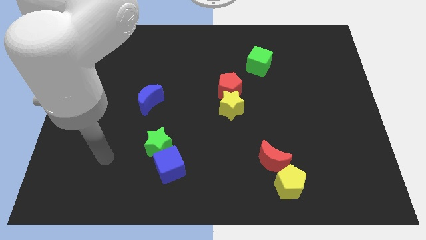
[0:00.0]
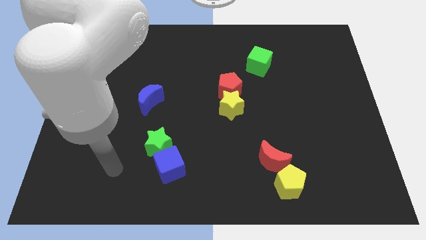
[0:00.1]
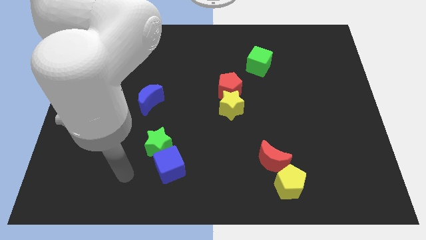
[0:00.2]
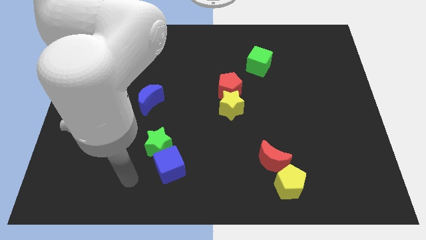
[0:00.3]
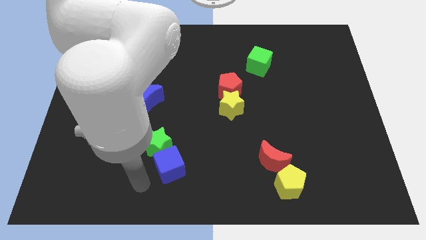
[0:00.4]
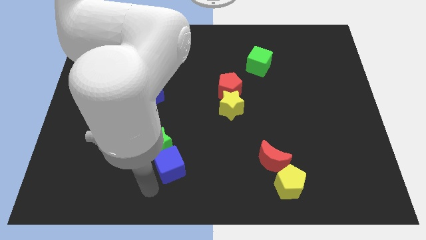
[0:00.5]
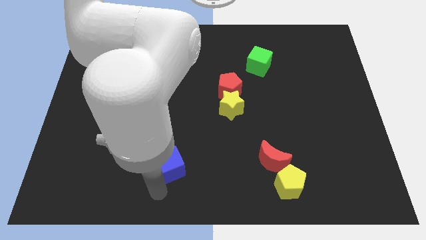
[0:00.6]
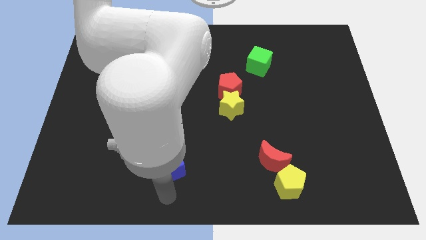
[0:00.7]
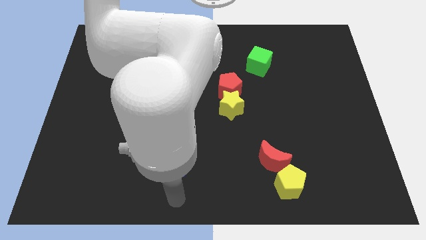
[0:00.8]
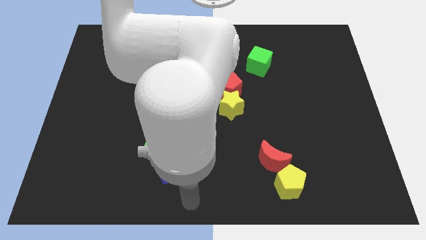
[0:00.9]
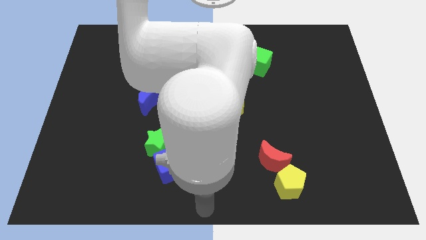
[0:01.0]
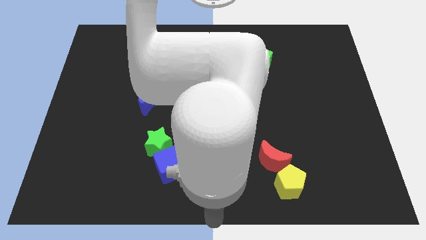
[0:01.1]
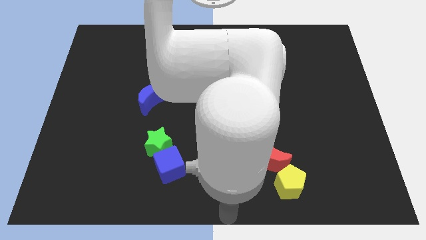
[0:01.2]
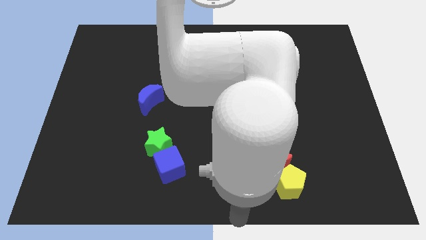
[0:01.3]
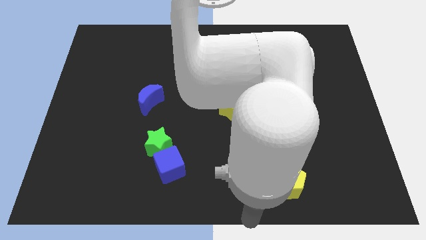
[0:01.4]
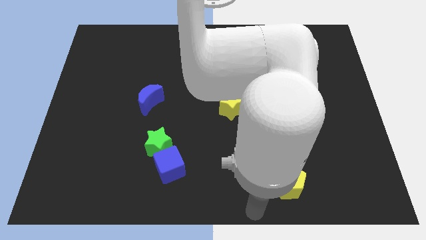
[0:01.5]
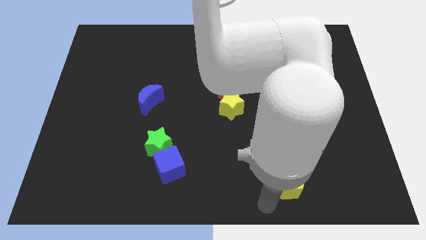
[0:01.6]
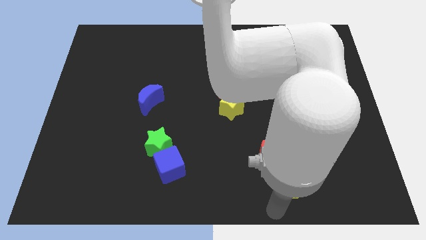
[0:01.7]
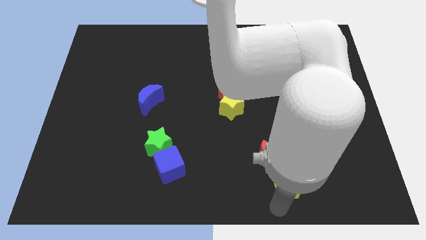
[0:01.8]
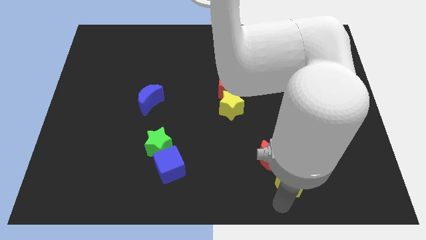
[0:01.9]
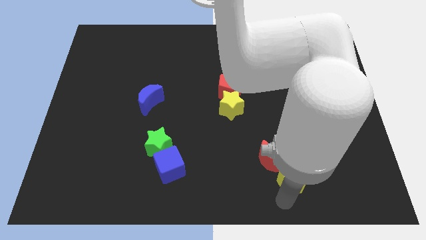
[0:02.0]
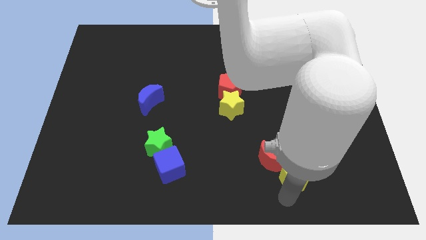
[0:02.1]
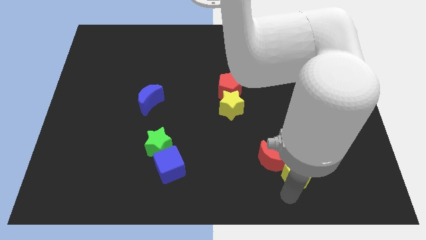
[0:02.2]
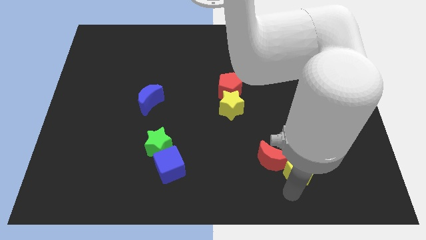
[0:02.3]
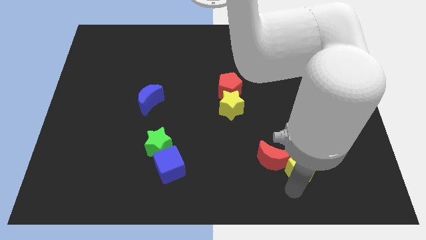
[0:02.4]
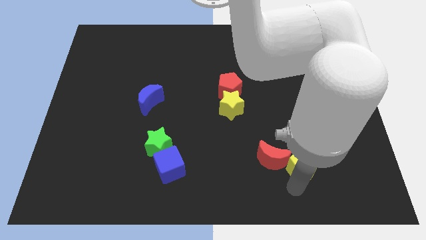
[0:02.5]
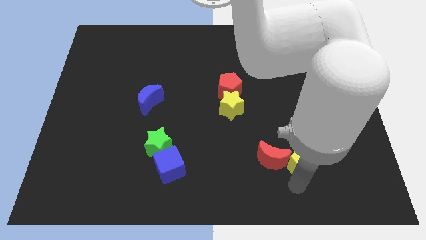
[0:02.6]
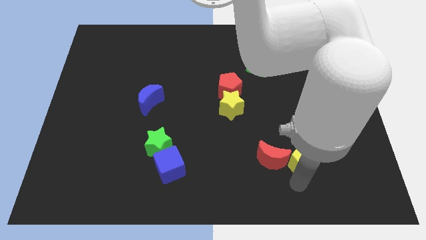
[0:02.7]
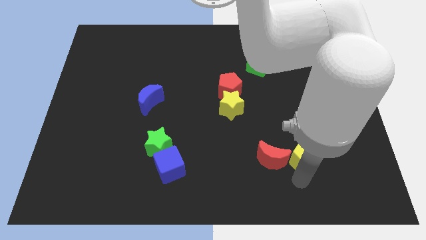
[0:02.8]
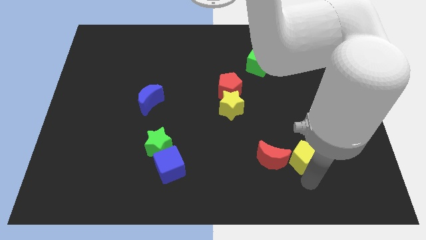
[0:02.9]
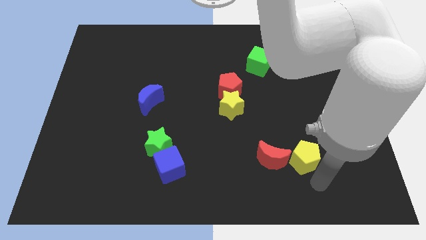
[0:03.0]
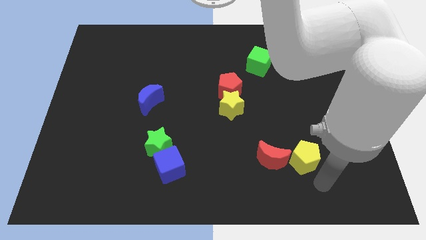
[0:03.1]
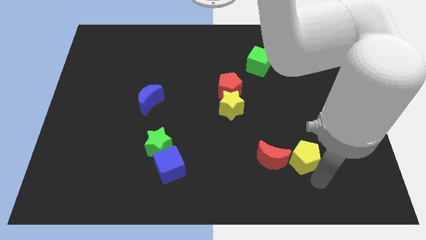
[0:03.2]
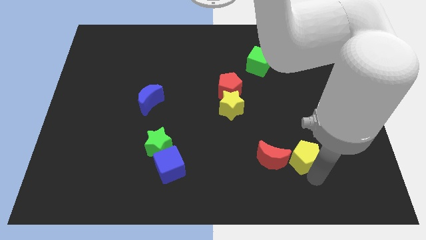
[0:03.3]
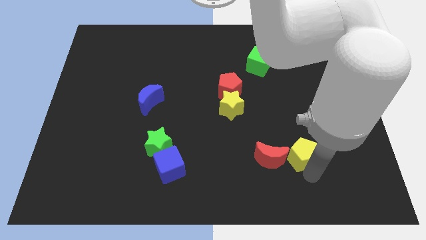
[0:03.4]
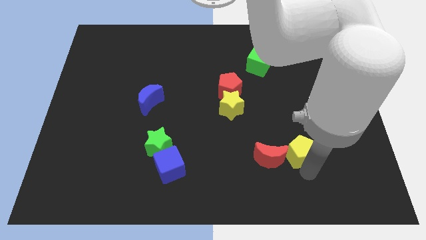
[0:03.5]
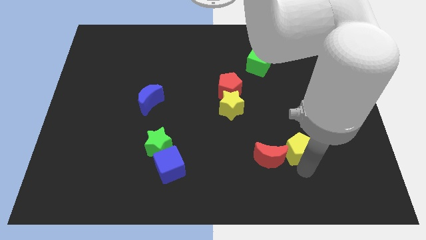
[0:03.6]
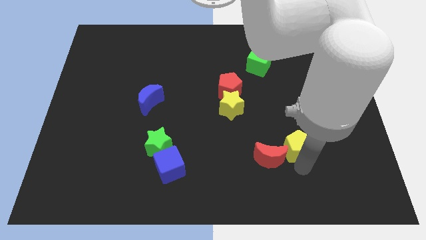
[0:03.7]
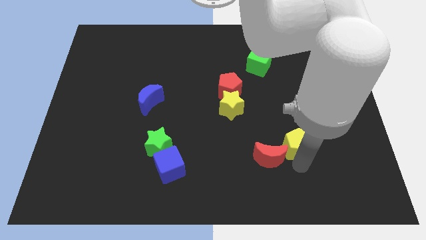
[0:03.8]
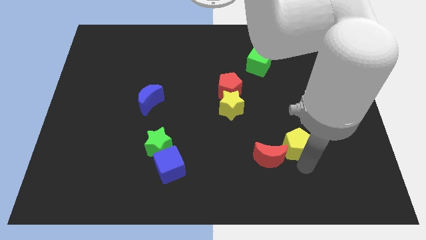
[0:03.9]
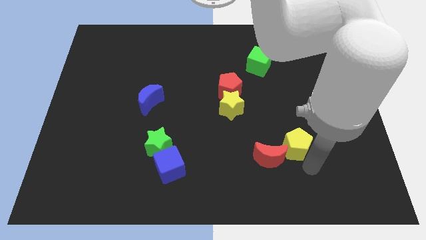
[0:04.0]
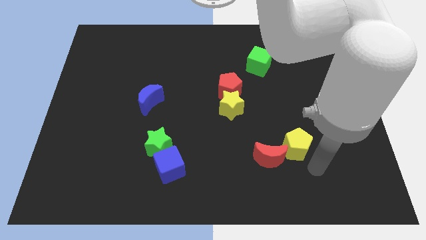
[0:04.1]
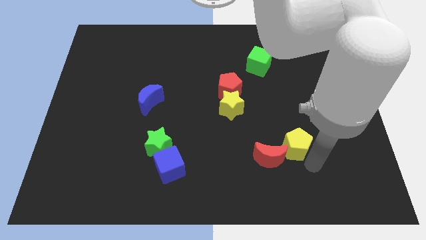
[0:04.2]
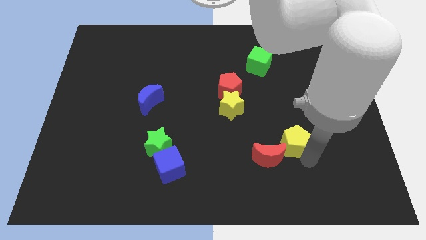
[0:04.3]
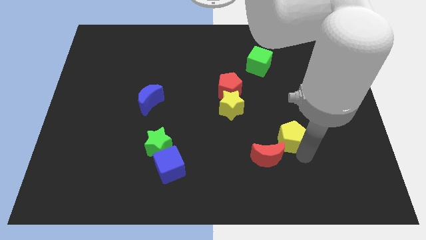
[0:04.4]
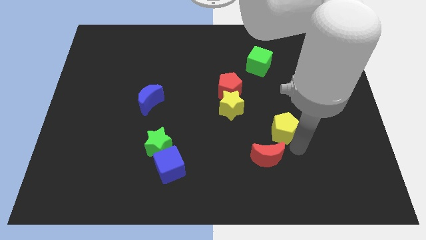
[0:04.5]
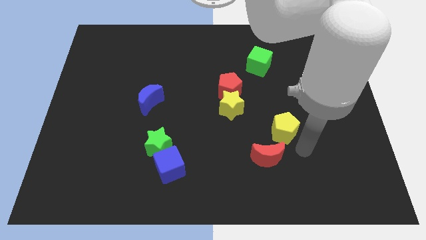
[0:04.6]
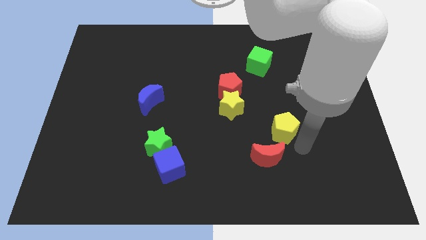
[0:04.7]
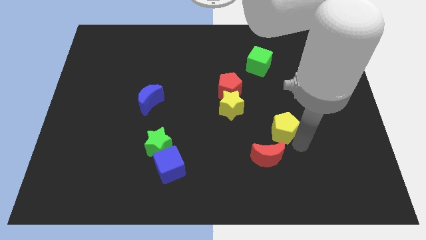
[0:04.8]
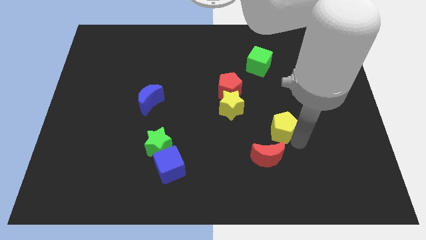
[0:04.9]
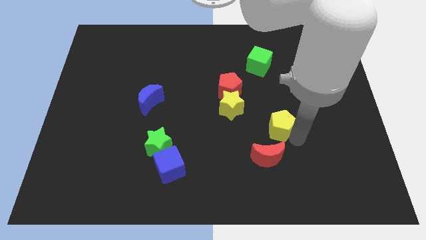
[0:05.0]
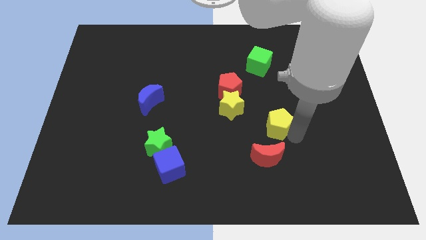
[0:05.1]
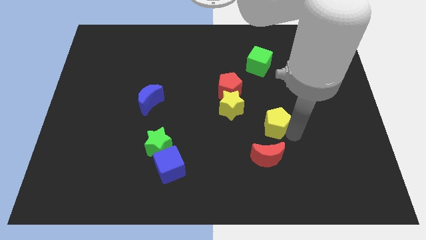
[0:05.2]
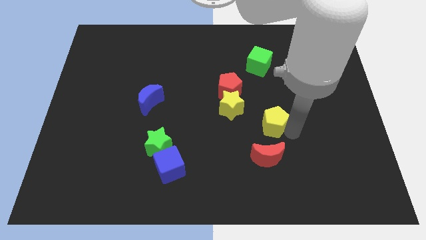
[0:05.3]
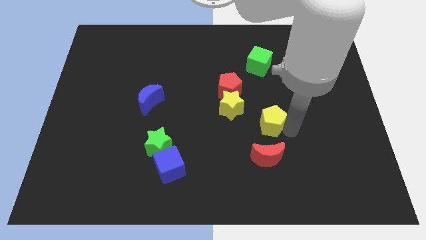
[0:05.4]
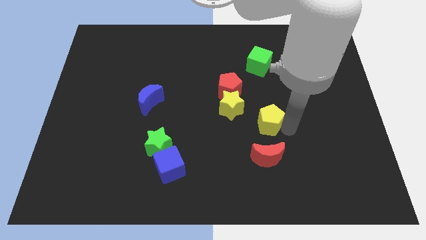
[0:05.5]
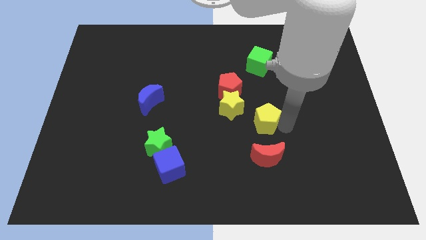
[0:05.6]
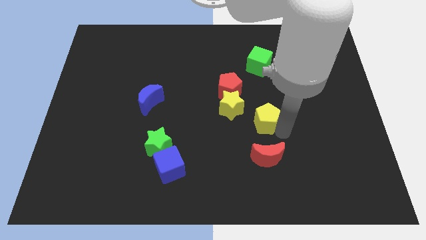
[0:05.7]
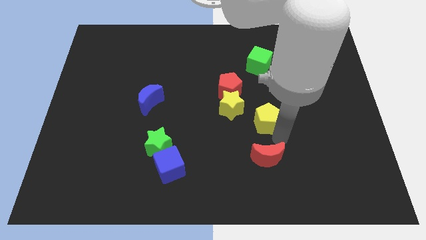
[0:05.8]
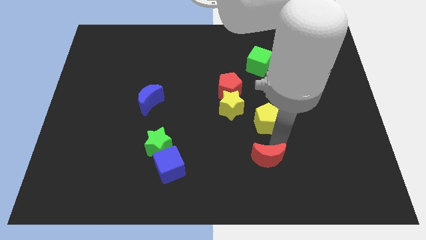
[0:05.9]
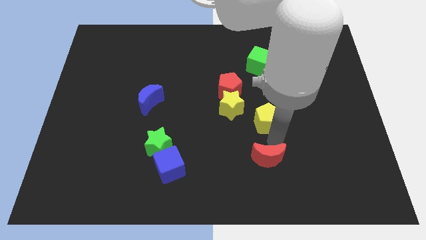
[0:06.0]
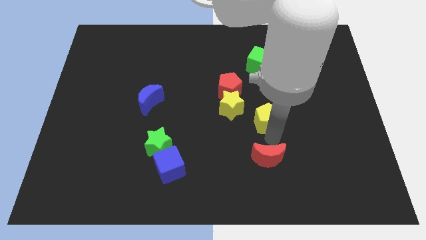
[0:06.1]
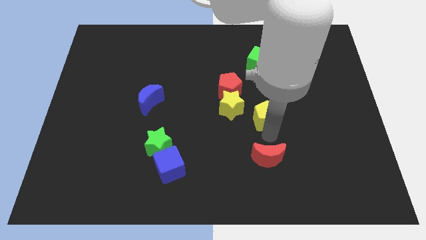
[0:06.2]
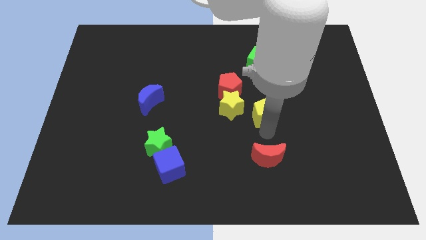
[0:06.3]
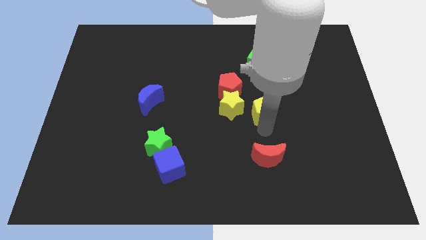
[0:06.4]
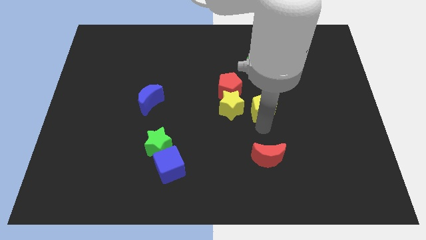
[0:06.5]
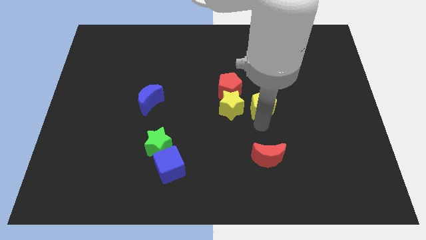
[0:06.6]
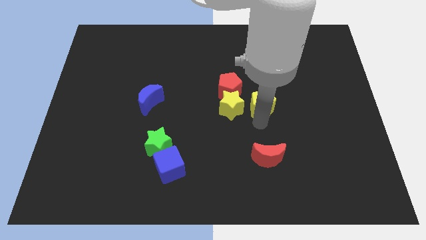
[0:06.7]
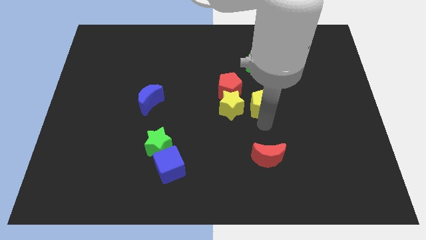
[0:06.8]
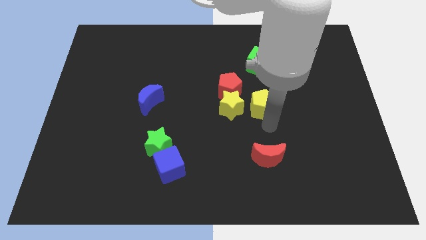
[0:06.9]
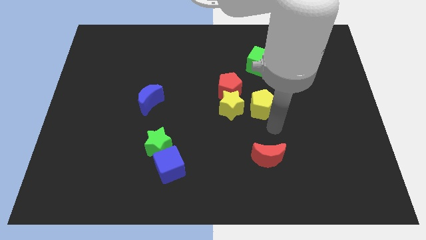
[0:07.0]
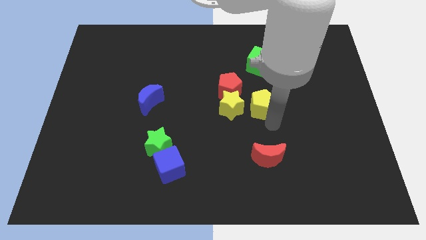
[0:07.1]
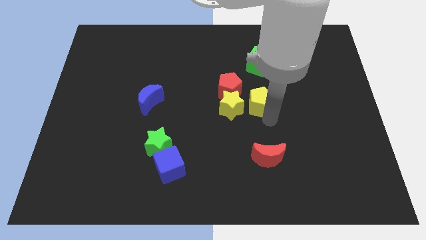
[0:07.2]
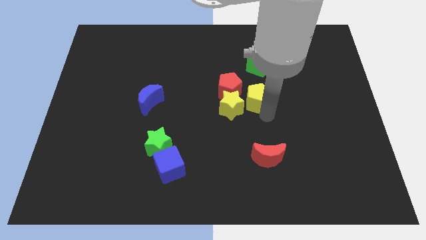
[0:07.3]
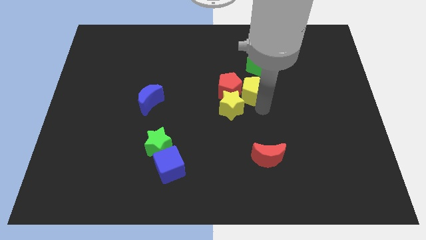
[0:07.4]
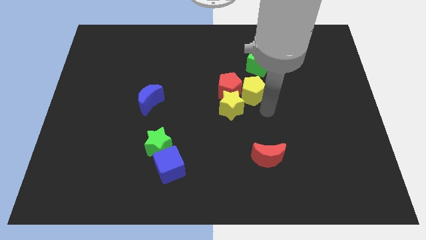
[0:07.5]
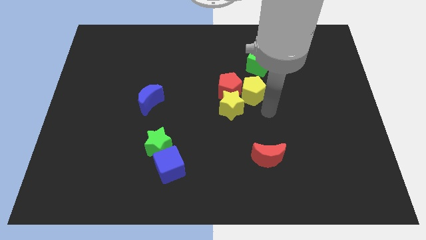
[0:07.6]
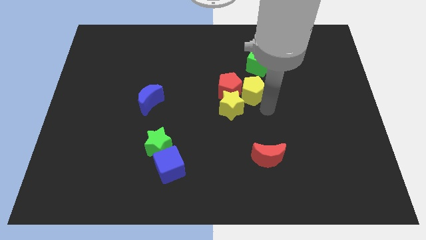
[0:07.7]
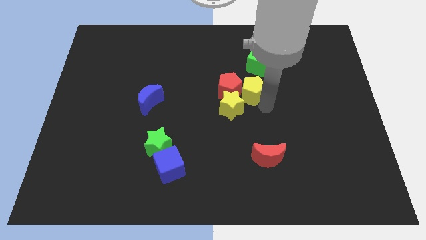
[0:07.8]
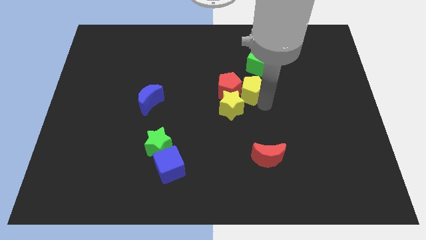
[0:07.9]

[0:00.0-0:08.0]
move the yellow pentagon to the bottom left side of the green cube
